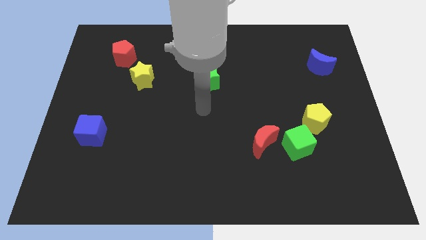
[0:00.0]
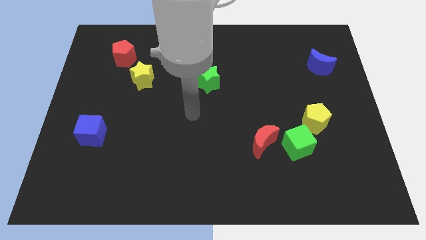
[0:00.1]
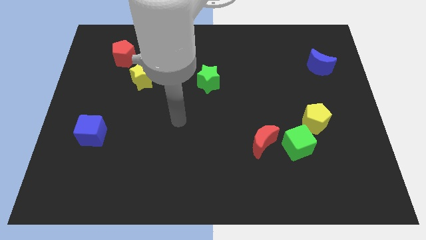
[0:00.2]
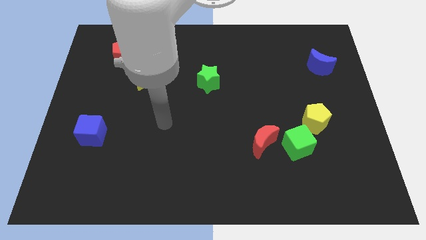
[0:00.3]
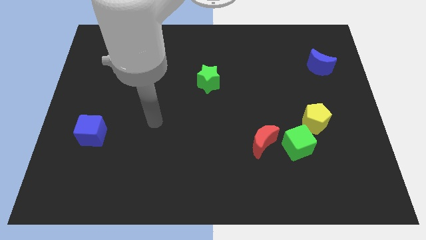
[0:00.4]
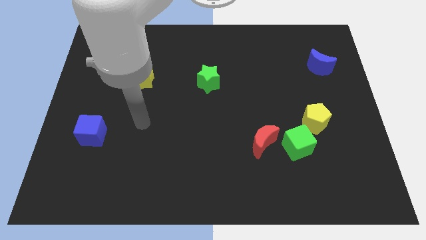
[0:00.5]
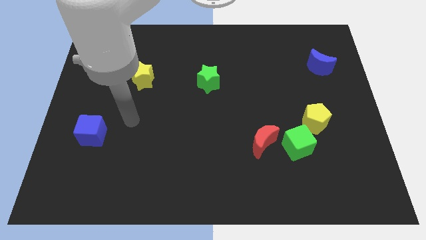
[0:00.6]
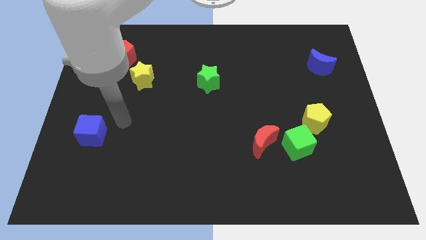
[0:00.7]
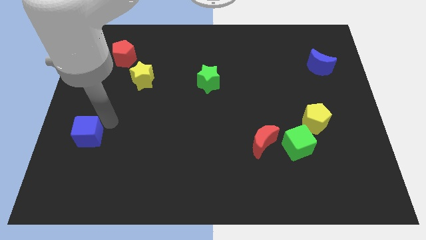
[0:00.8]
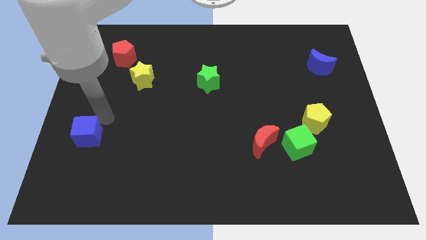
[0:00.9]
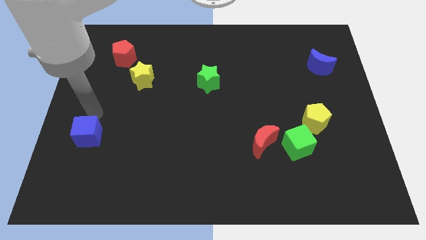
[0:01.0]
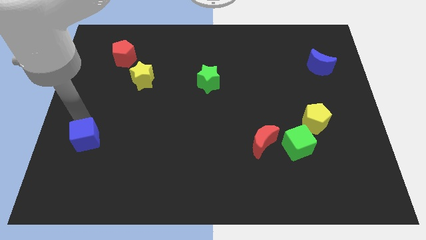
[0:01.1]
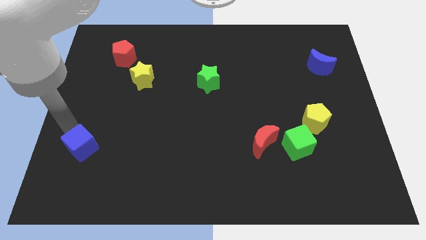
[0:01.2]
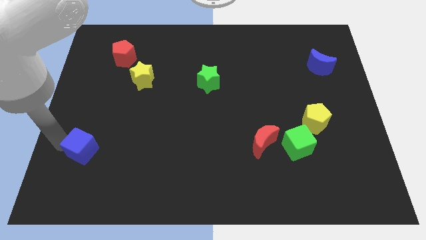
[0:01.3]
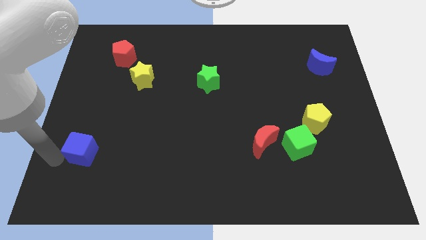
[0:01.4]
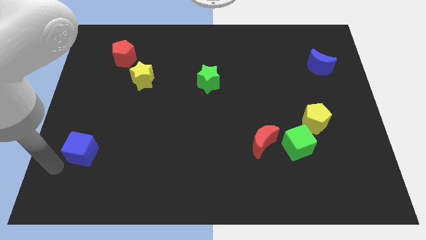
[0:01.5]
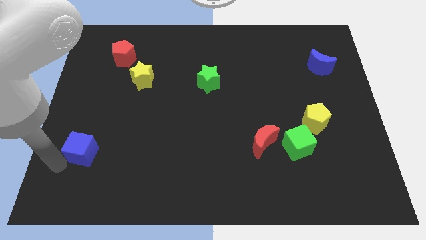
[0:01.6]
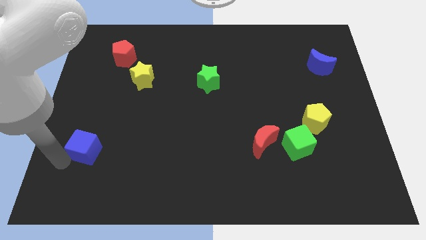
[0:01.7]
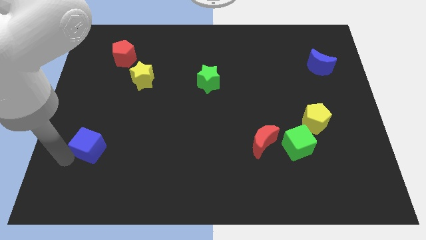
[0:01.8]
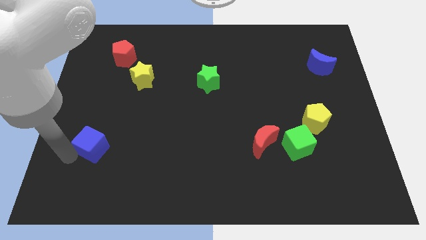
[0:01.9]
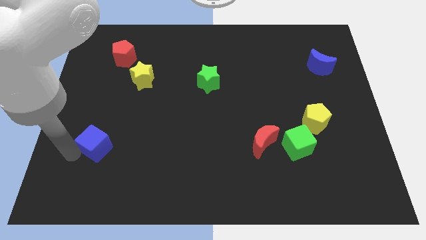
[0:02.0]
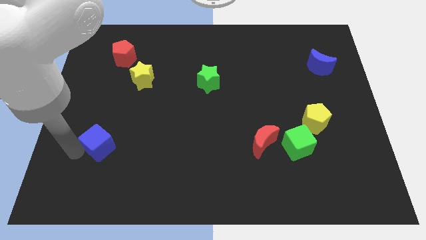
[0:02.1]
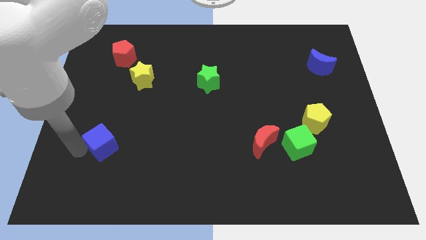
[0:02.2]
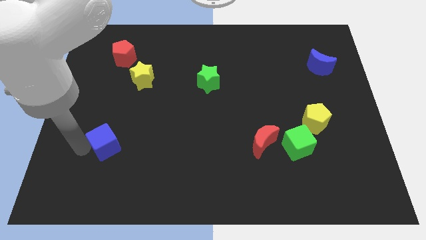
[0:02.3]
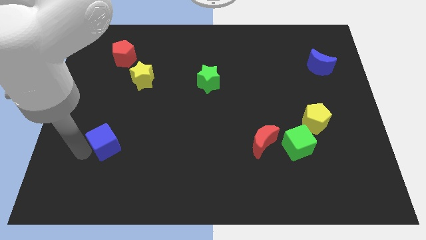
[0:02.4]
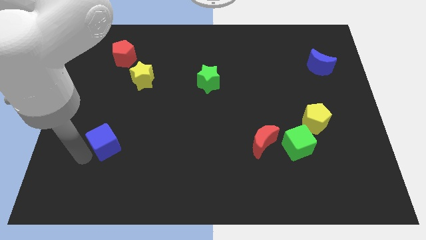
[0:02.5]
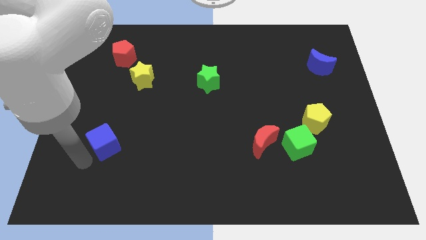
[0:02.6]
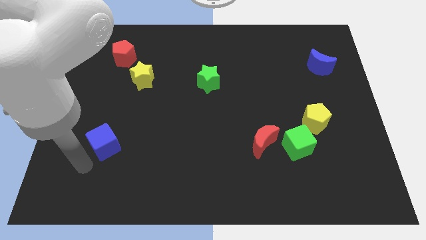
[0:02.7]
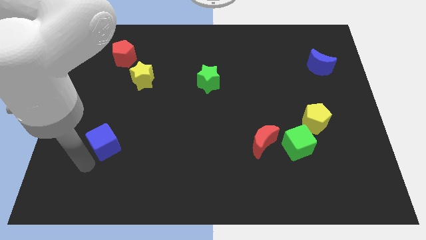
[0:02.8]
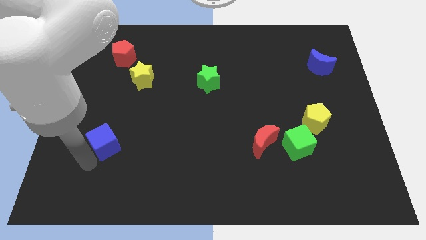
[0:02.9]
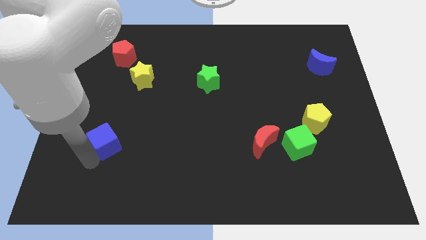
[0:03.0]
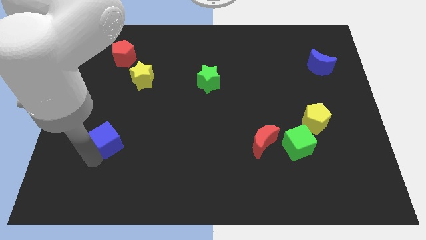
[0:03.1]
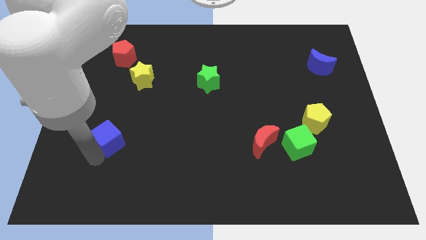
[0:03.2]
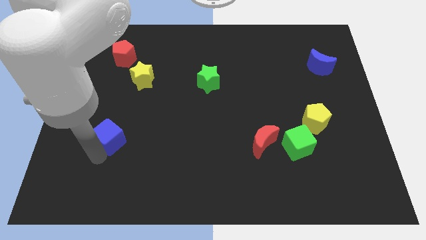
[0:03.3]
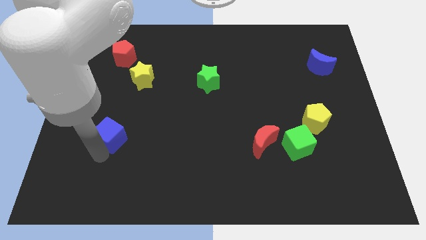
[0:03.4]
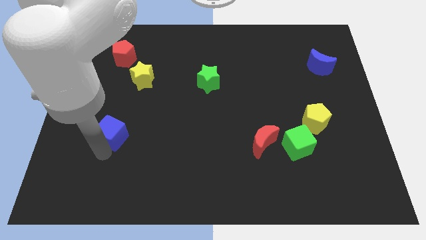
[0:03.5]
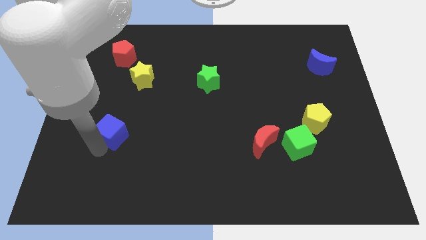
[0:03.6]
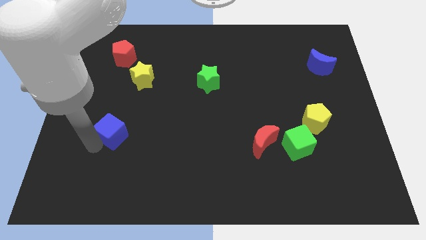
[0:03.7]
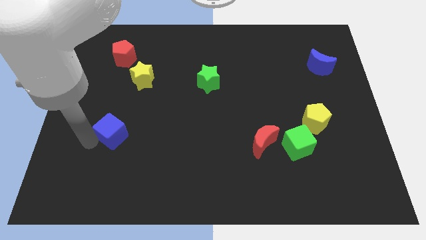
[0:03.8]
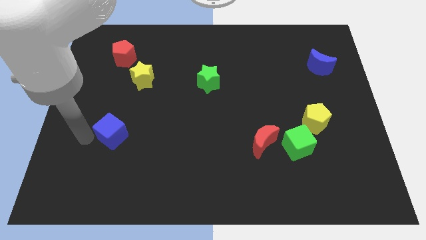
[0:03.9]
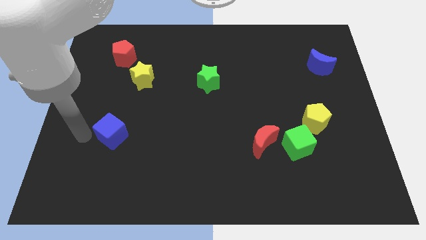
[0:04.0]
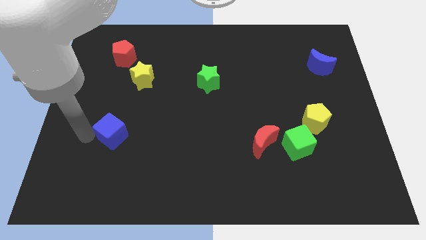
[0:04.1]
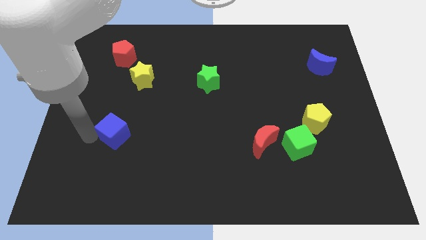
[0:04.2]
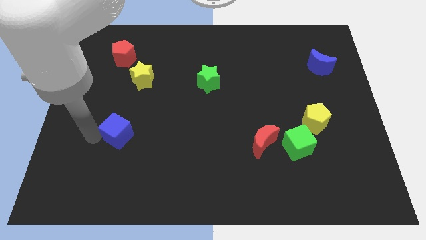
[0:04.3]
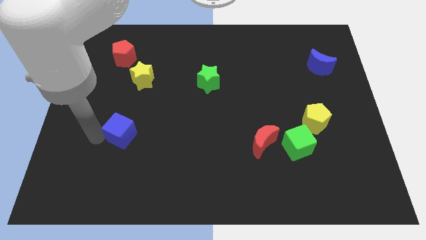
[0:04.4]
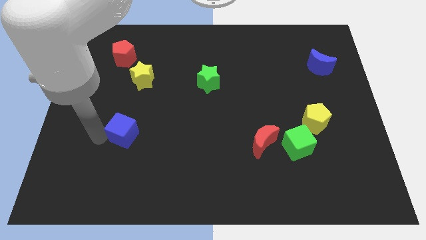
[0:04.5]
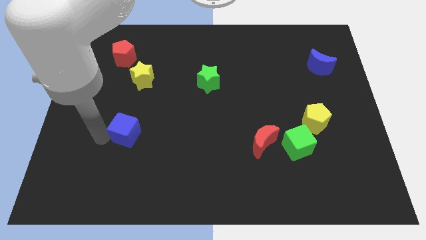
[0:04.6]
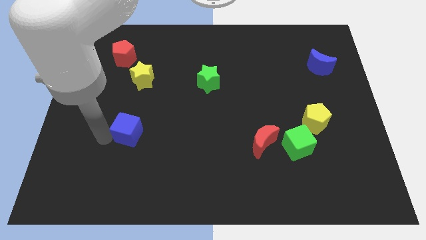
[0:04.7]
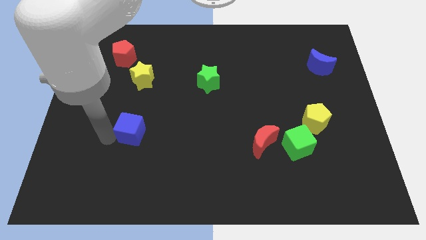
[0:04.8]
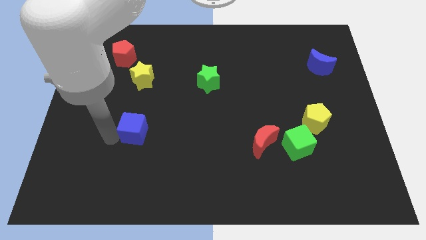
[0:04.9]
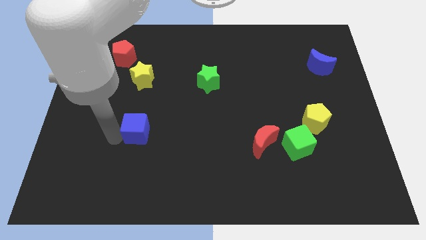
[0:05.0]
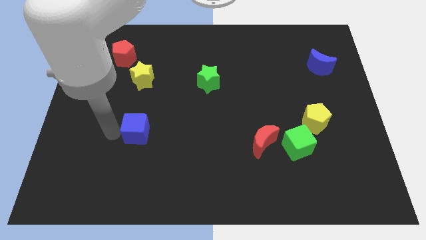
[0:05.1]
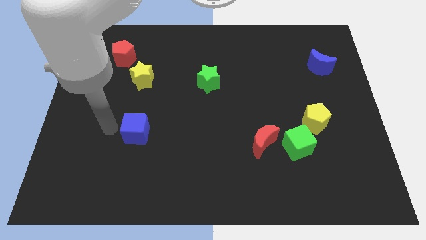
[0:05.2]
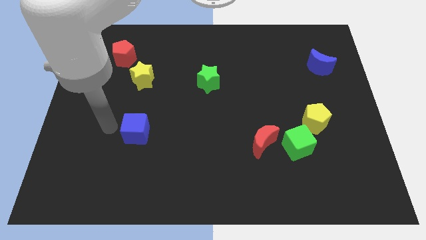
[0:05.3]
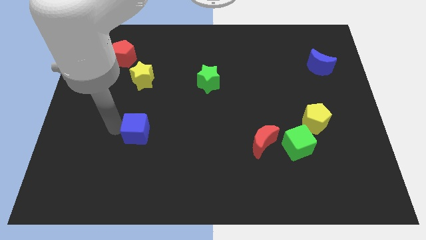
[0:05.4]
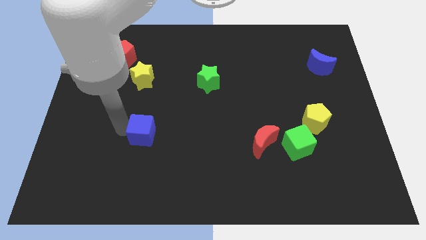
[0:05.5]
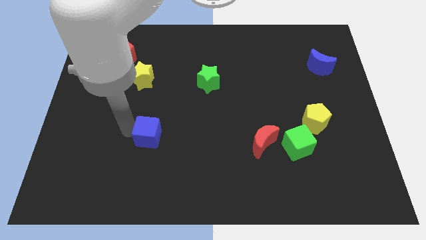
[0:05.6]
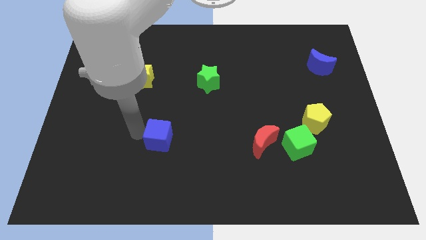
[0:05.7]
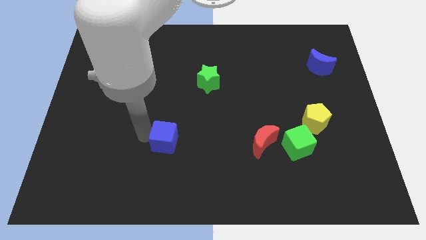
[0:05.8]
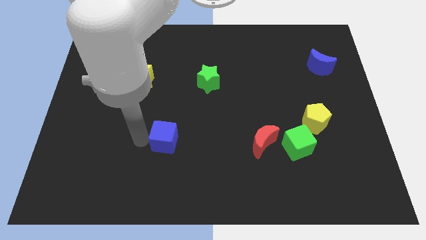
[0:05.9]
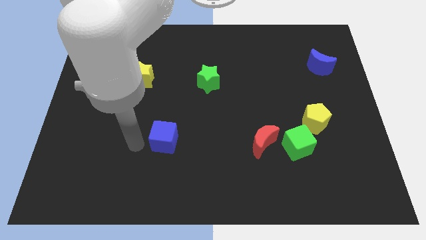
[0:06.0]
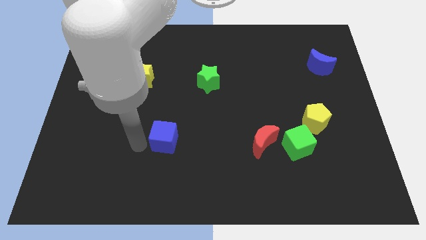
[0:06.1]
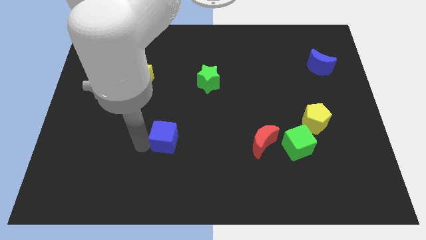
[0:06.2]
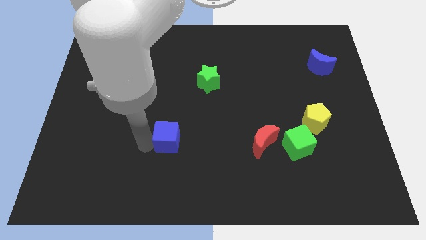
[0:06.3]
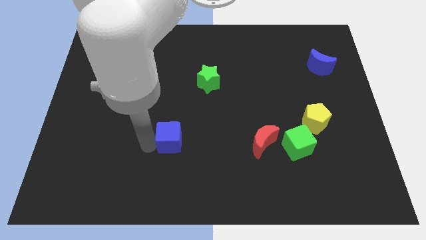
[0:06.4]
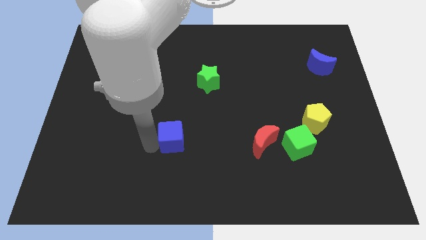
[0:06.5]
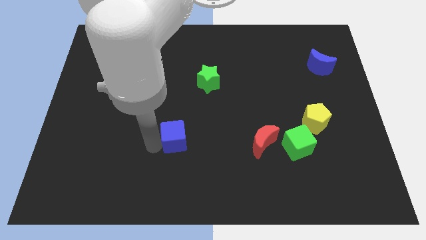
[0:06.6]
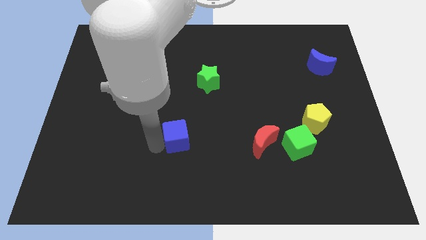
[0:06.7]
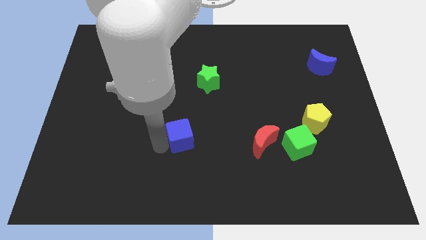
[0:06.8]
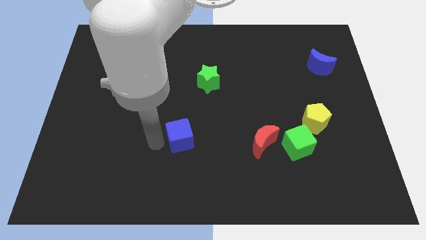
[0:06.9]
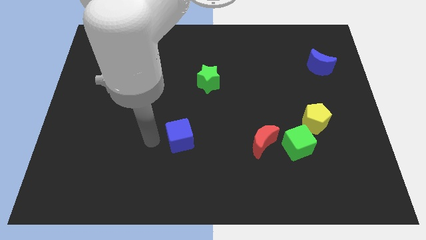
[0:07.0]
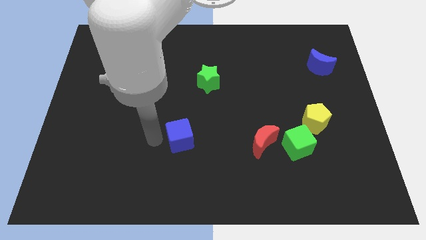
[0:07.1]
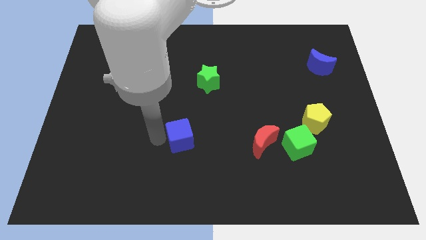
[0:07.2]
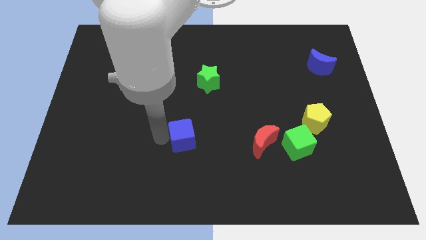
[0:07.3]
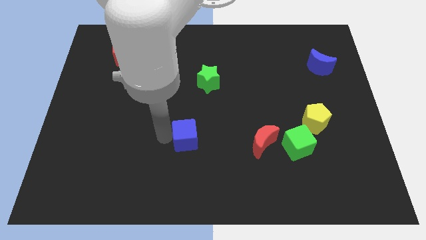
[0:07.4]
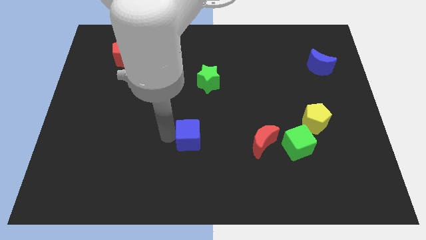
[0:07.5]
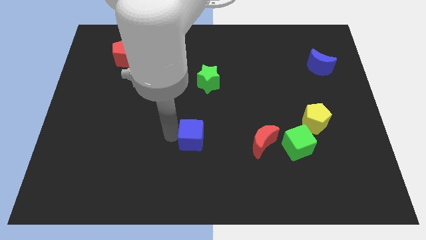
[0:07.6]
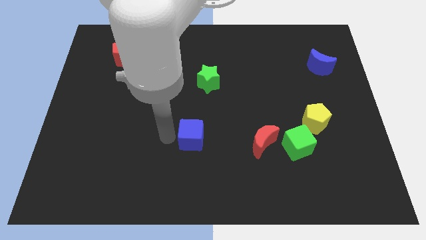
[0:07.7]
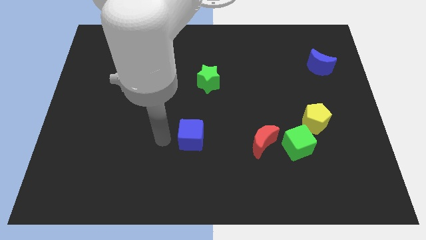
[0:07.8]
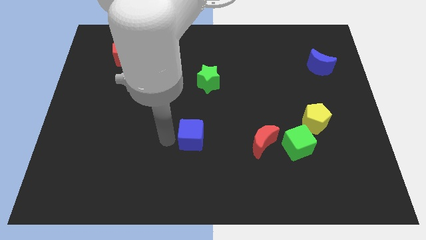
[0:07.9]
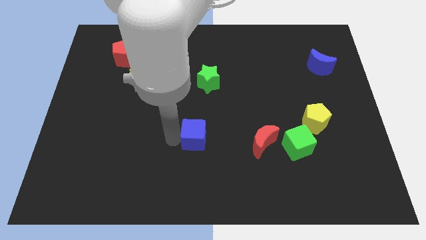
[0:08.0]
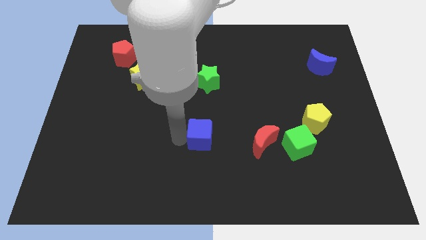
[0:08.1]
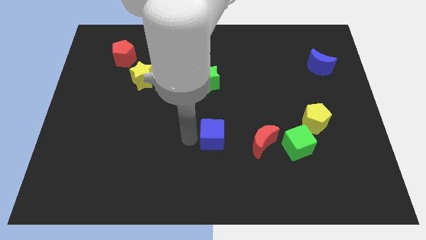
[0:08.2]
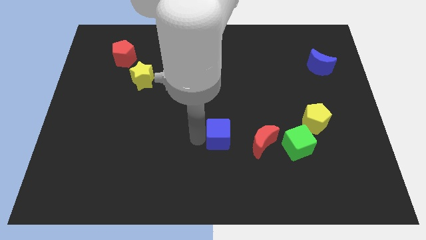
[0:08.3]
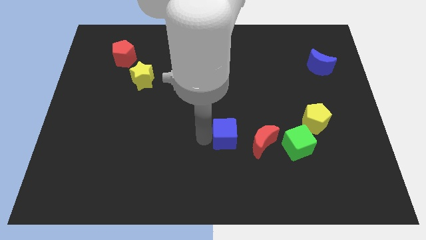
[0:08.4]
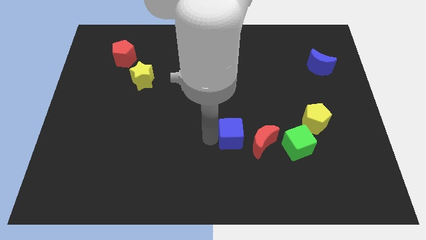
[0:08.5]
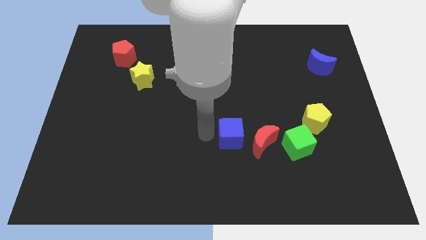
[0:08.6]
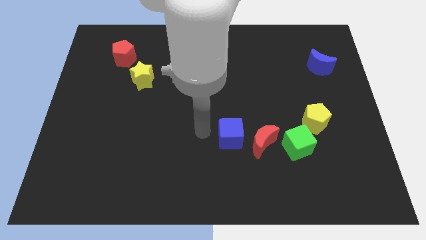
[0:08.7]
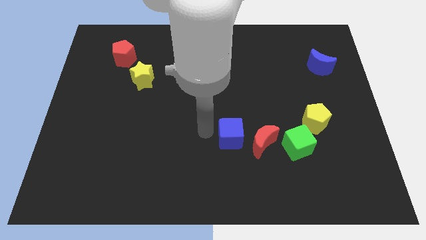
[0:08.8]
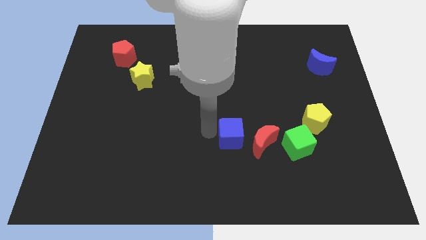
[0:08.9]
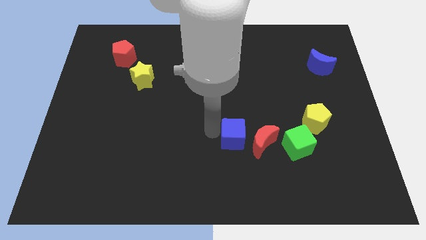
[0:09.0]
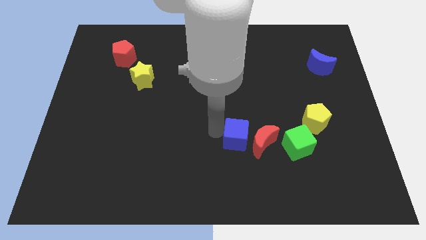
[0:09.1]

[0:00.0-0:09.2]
put the blue cube next to the red moon
